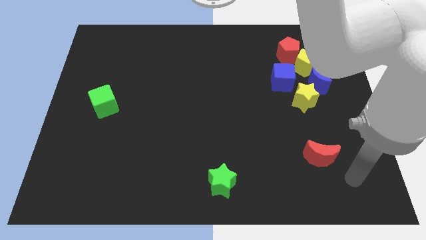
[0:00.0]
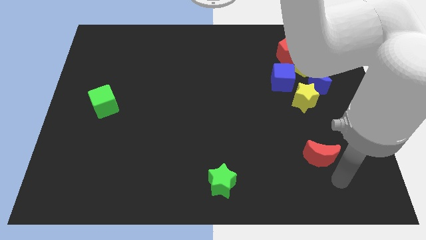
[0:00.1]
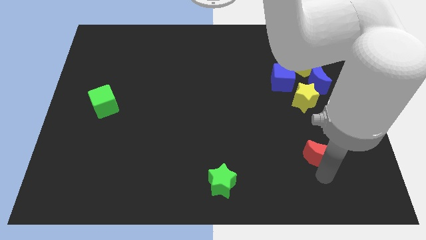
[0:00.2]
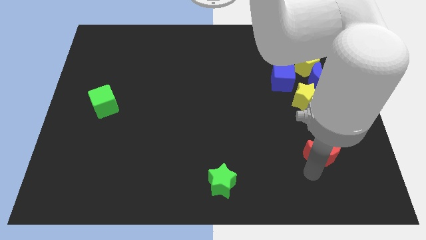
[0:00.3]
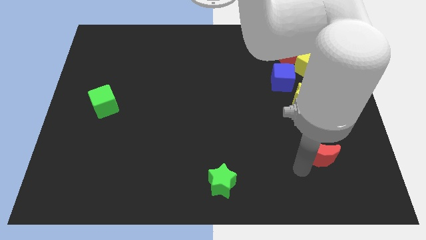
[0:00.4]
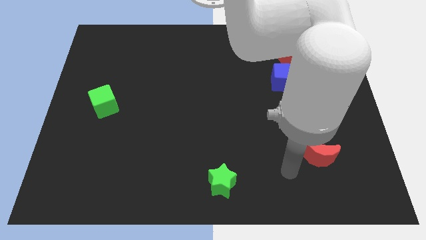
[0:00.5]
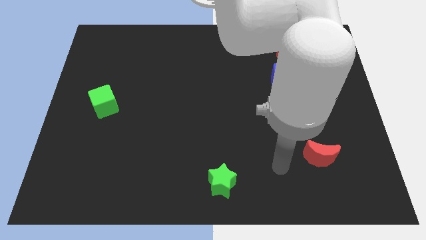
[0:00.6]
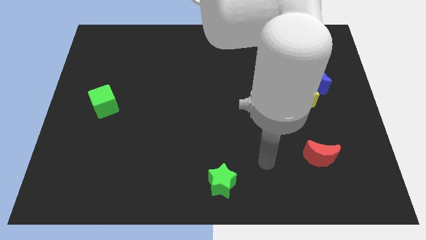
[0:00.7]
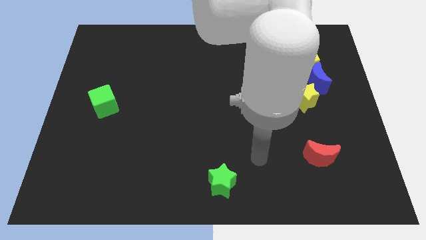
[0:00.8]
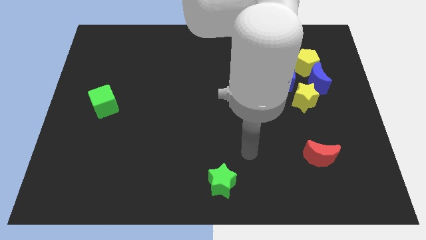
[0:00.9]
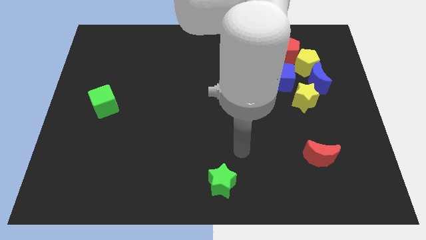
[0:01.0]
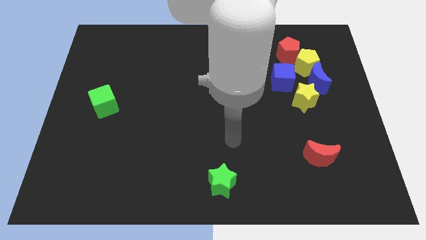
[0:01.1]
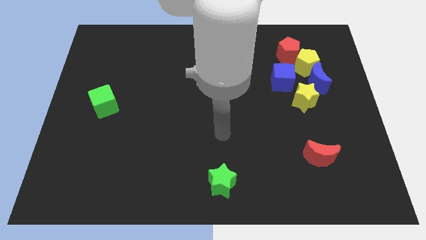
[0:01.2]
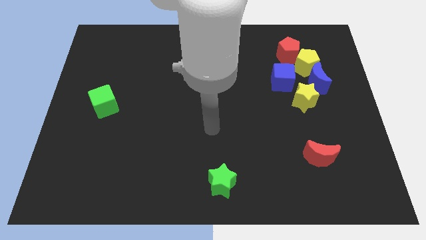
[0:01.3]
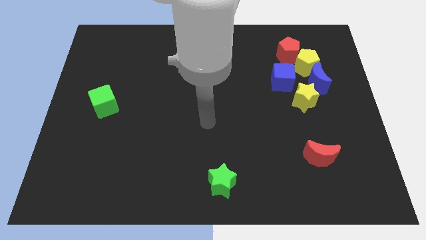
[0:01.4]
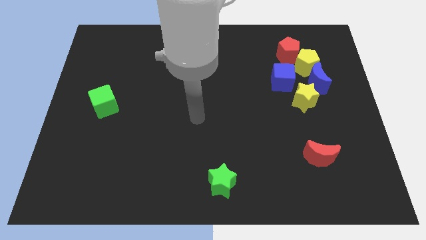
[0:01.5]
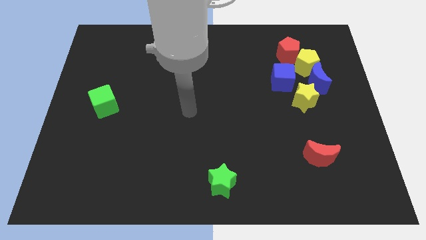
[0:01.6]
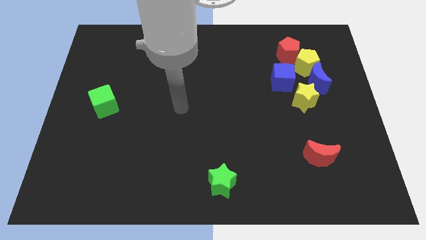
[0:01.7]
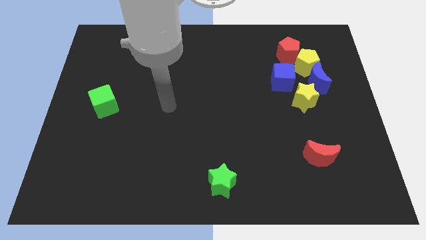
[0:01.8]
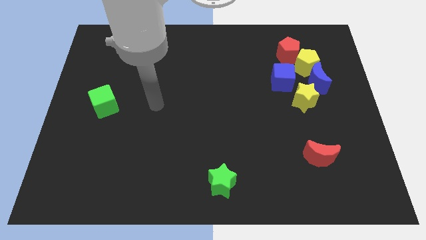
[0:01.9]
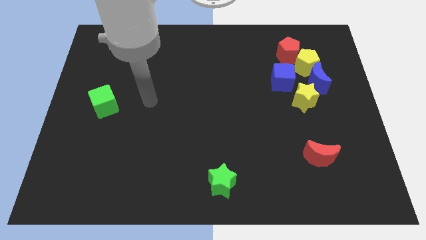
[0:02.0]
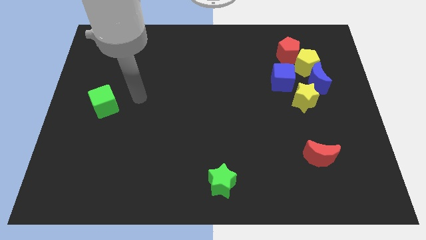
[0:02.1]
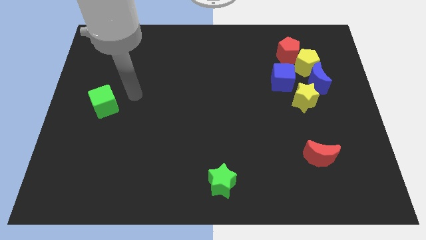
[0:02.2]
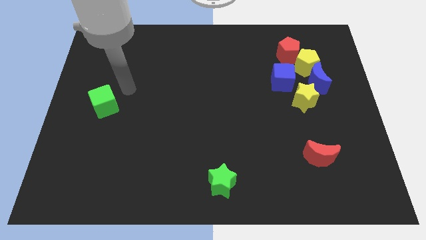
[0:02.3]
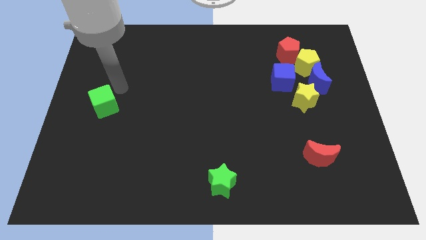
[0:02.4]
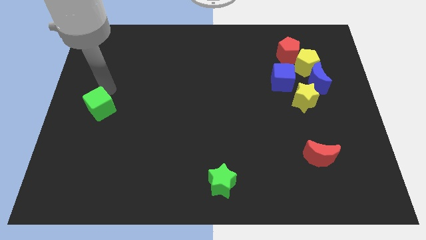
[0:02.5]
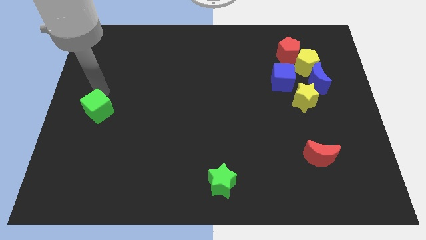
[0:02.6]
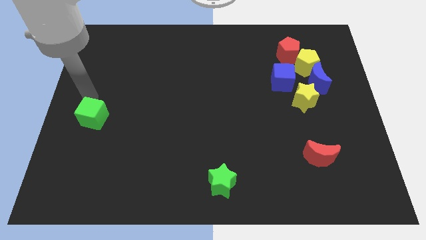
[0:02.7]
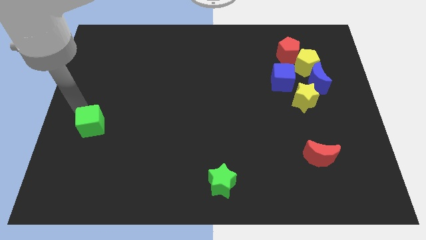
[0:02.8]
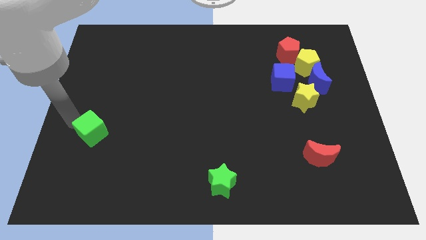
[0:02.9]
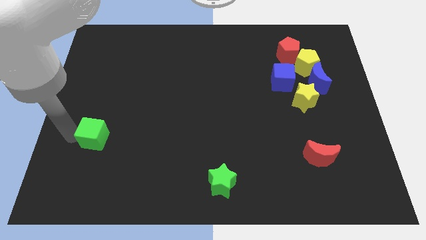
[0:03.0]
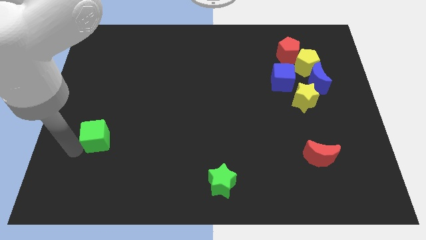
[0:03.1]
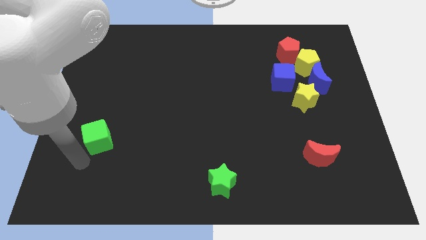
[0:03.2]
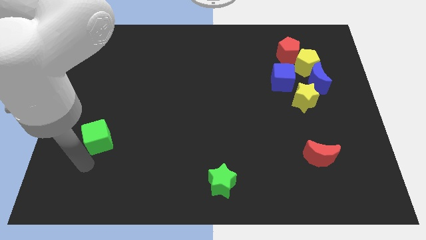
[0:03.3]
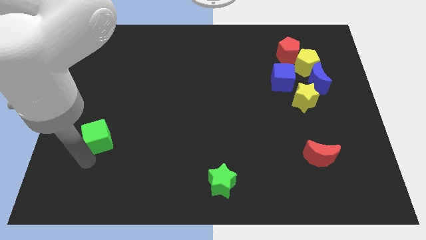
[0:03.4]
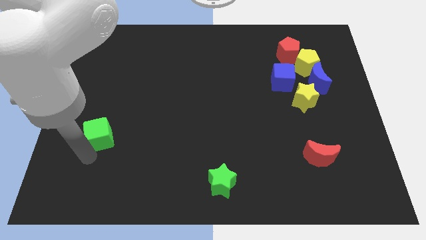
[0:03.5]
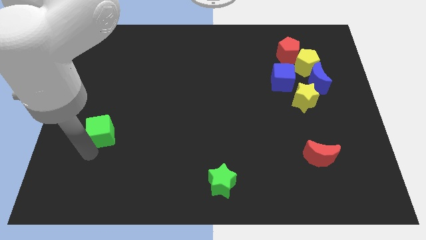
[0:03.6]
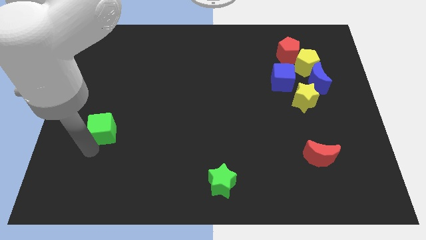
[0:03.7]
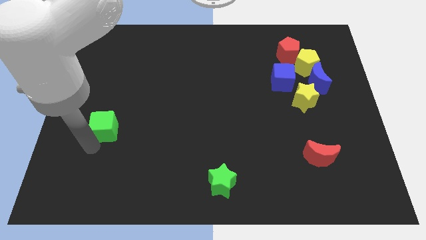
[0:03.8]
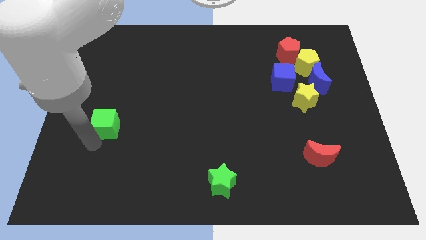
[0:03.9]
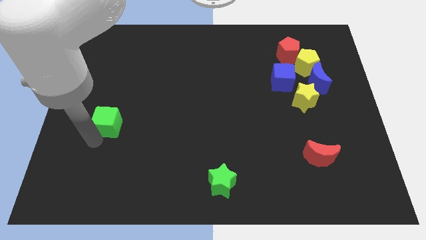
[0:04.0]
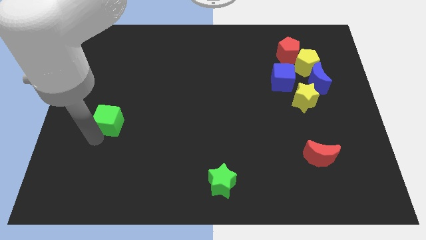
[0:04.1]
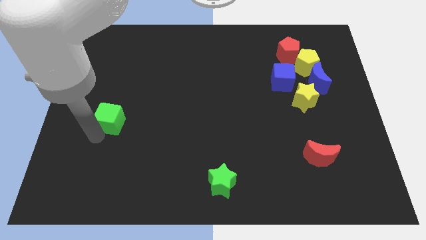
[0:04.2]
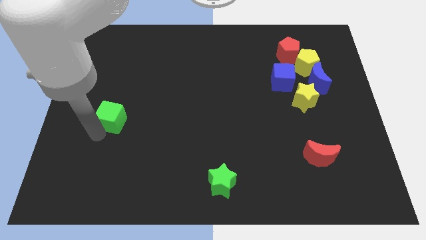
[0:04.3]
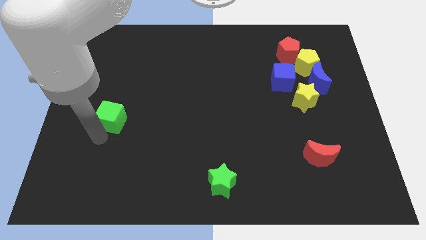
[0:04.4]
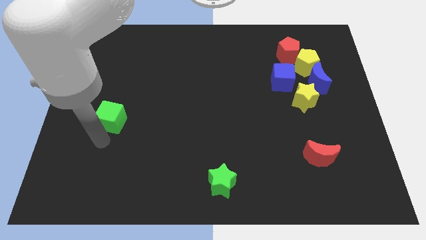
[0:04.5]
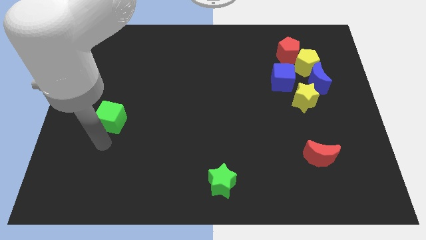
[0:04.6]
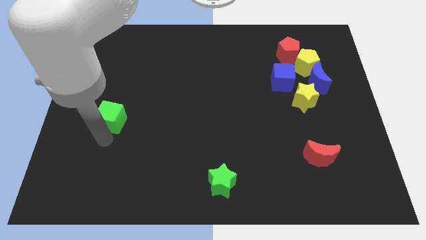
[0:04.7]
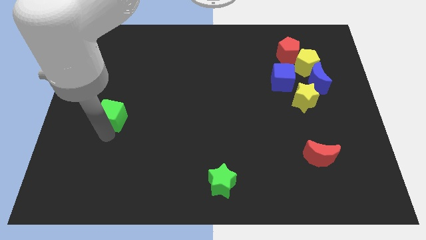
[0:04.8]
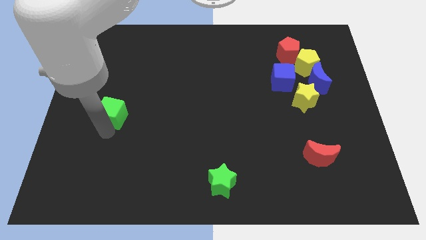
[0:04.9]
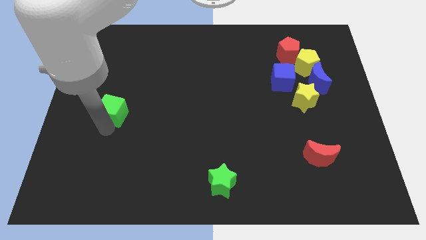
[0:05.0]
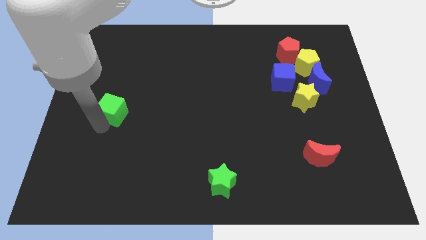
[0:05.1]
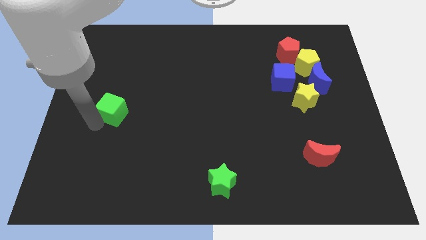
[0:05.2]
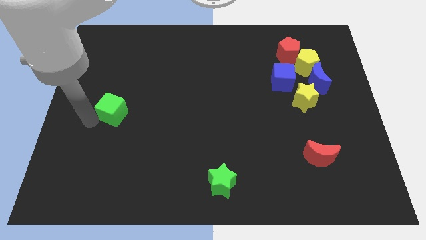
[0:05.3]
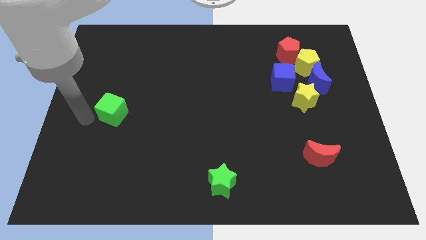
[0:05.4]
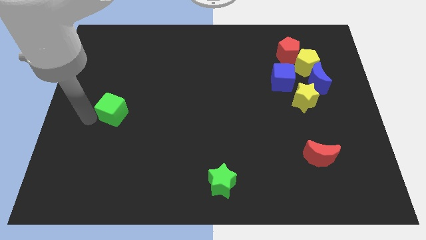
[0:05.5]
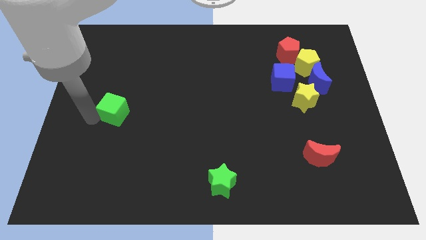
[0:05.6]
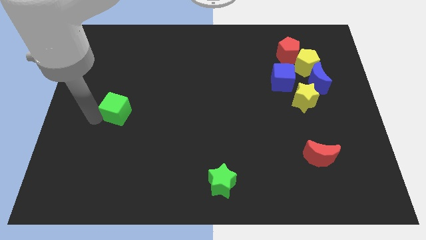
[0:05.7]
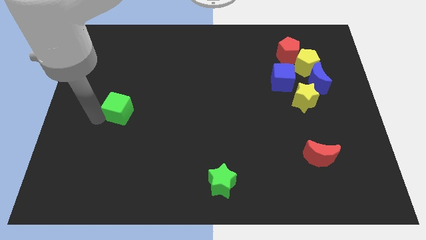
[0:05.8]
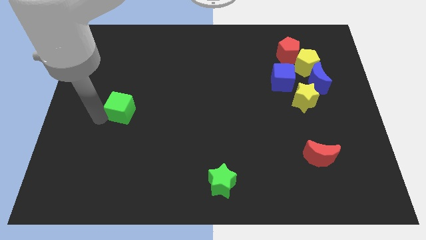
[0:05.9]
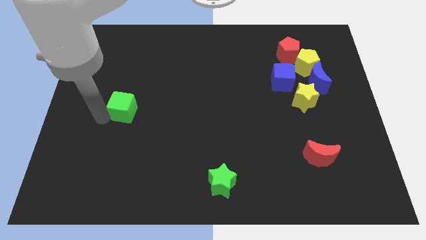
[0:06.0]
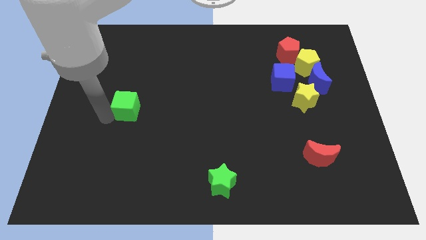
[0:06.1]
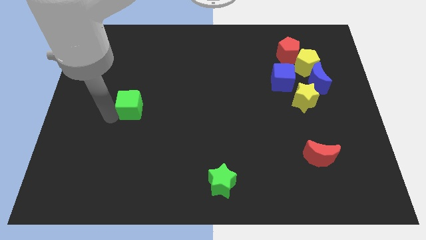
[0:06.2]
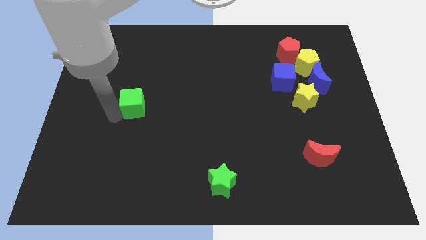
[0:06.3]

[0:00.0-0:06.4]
slide the green cube a bit right

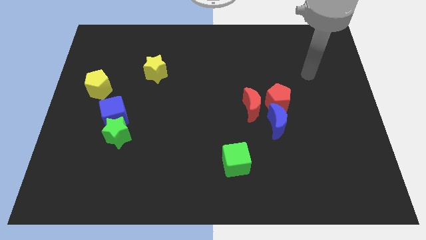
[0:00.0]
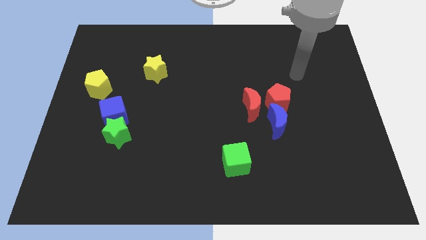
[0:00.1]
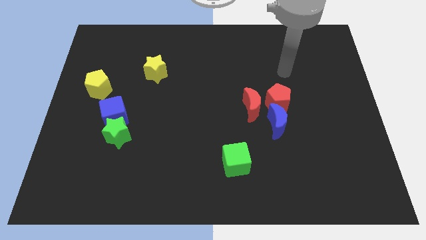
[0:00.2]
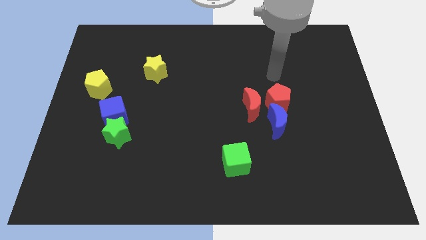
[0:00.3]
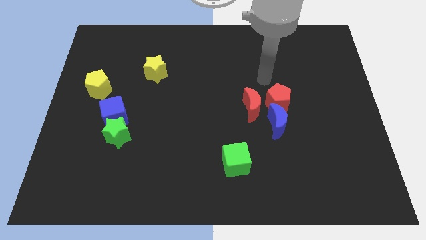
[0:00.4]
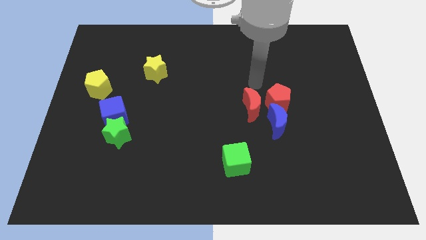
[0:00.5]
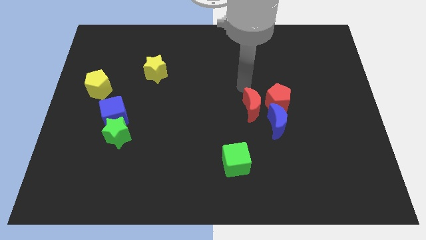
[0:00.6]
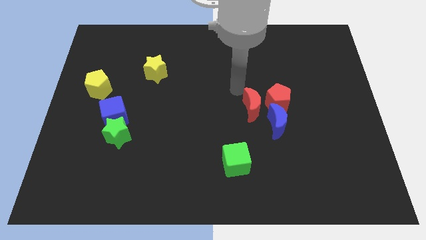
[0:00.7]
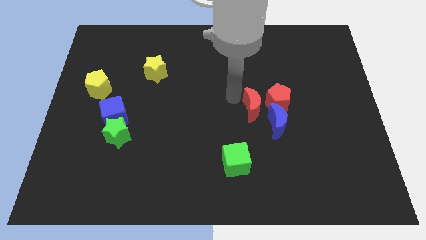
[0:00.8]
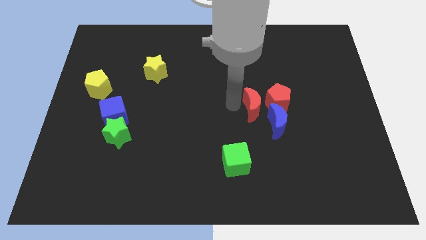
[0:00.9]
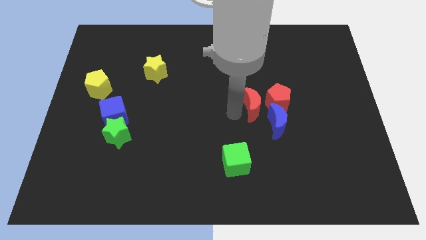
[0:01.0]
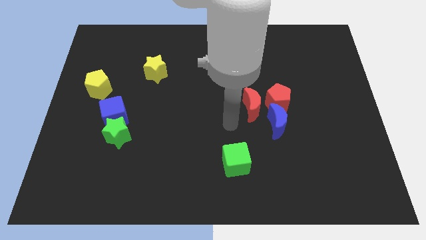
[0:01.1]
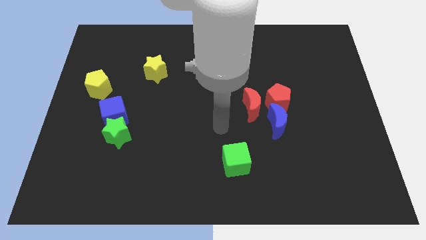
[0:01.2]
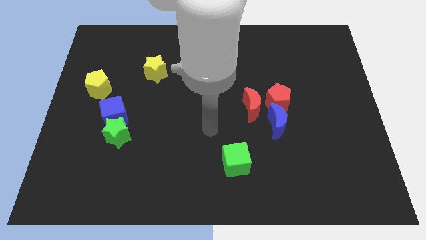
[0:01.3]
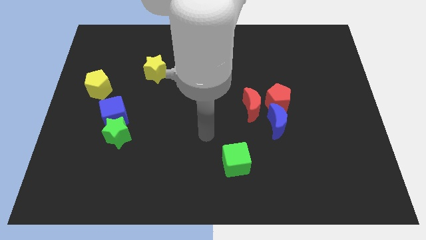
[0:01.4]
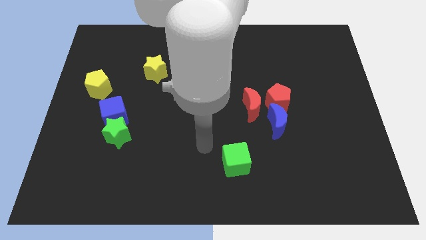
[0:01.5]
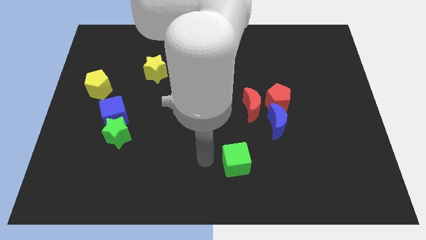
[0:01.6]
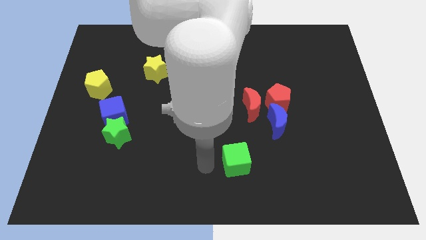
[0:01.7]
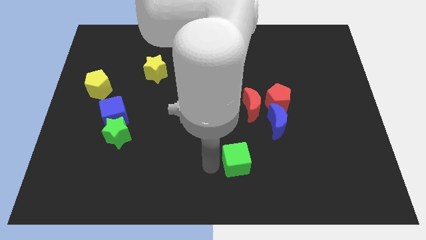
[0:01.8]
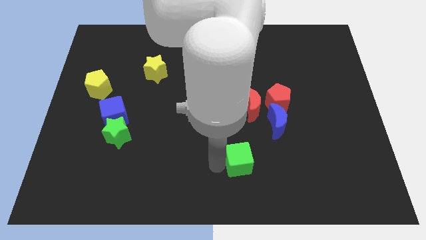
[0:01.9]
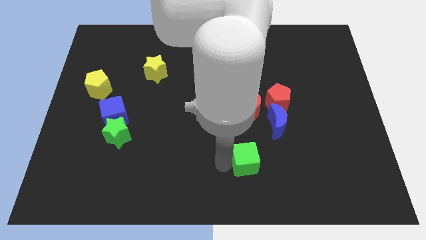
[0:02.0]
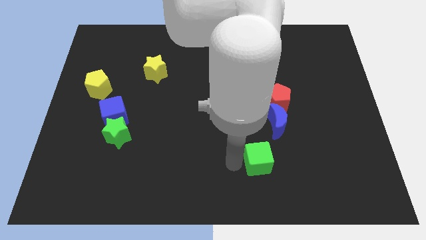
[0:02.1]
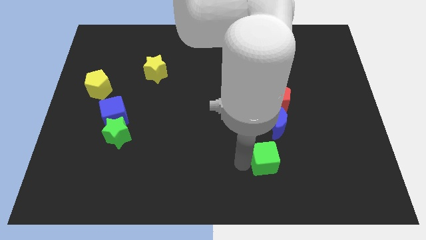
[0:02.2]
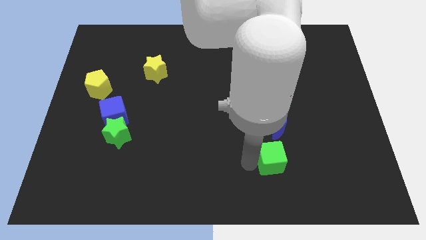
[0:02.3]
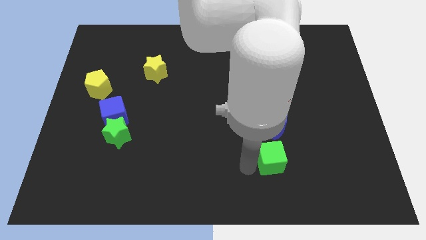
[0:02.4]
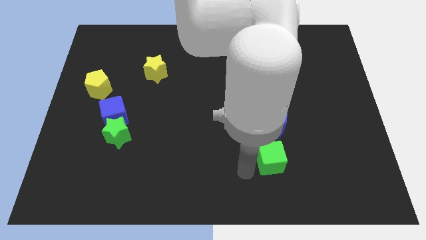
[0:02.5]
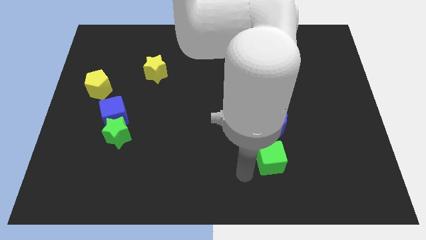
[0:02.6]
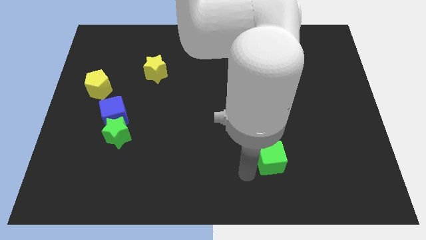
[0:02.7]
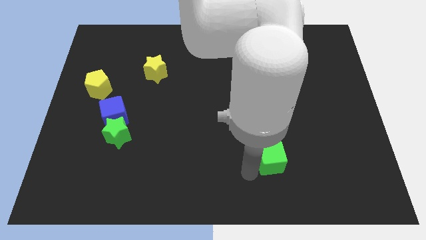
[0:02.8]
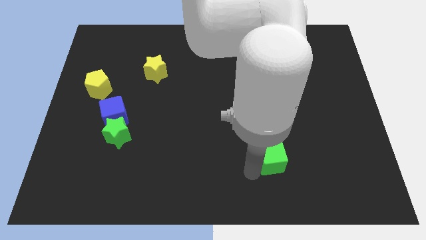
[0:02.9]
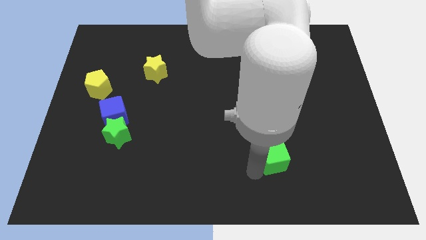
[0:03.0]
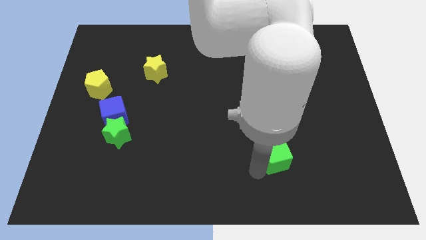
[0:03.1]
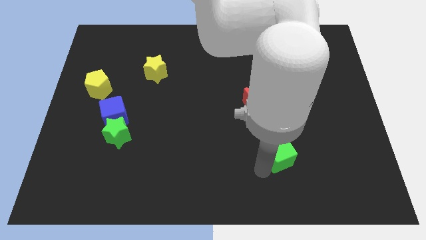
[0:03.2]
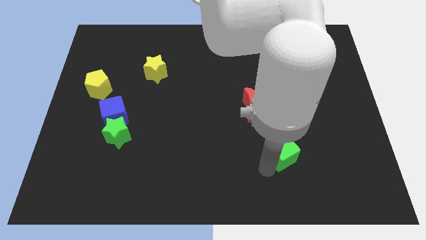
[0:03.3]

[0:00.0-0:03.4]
move the green cube a bit up and to the right
